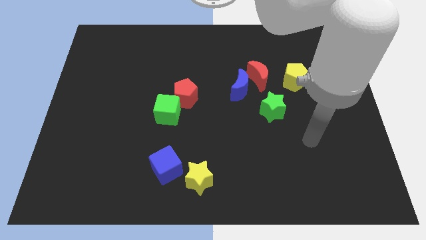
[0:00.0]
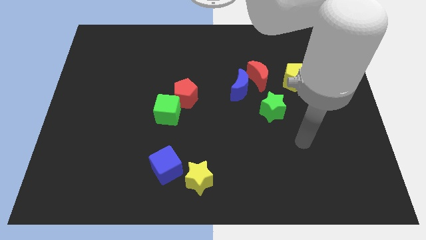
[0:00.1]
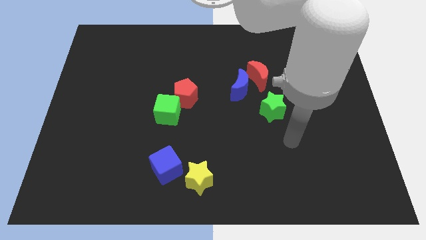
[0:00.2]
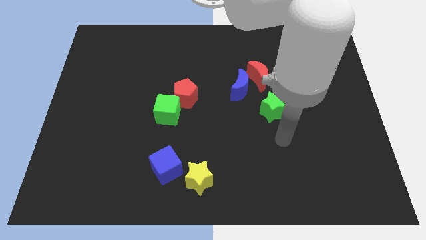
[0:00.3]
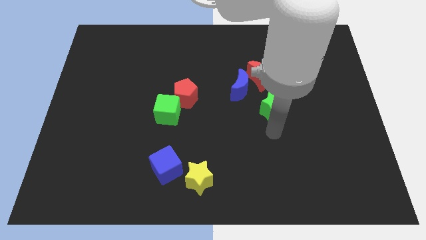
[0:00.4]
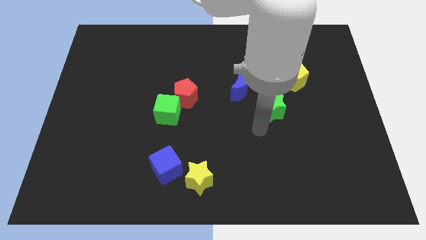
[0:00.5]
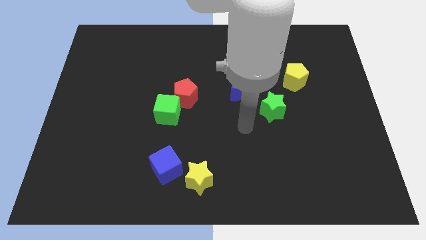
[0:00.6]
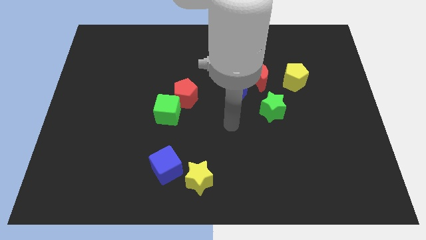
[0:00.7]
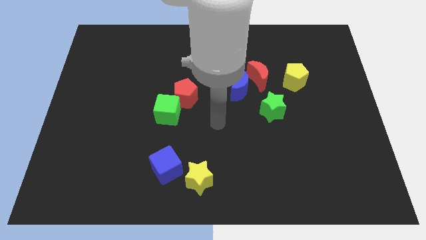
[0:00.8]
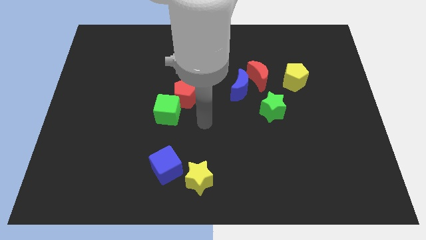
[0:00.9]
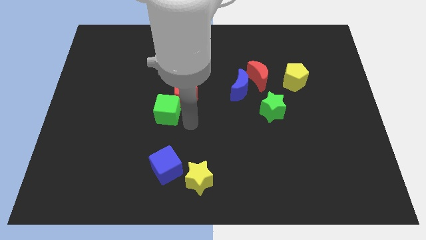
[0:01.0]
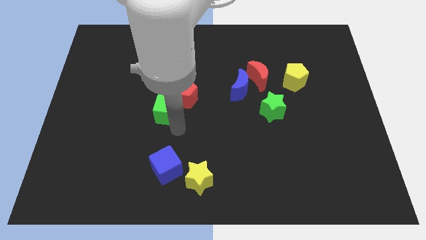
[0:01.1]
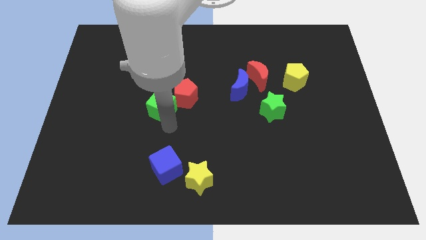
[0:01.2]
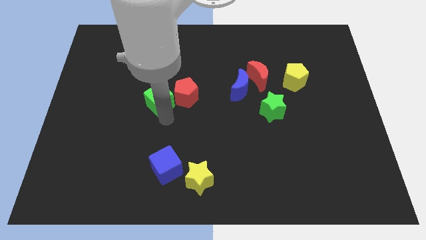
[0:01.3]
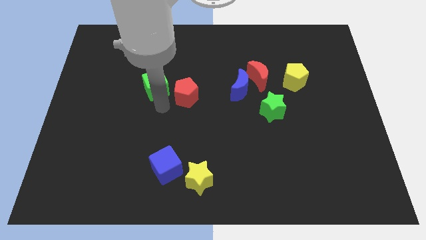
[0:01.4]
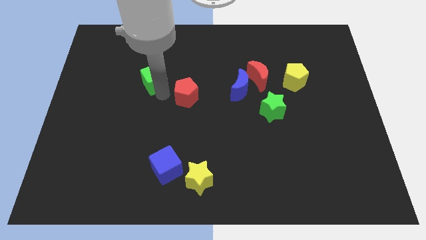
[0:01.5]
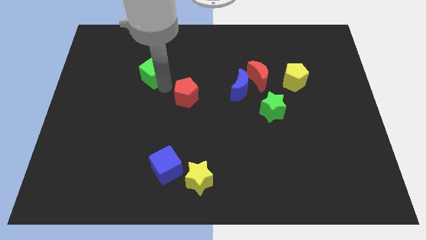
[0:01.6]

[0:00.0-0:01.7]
pull the red pentagon apart from the green cube

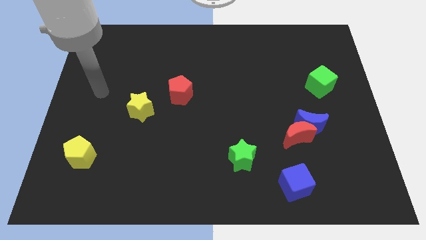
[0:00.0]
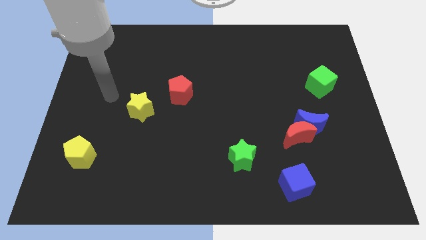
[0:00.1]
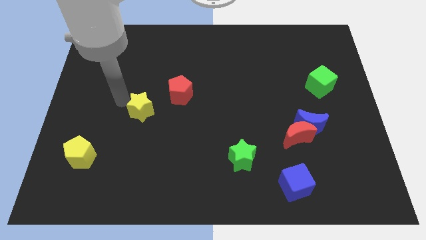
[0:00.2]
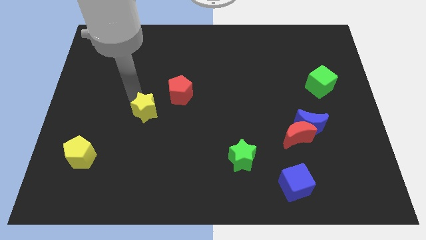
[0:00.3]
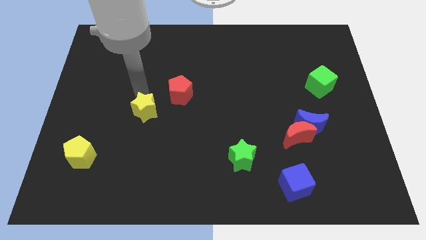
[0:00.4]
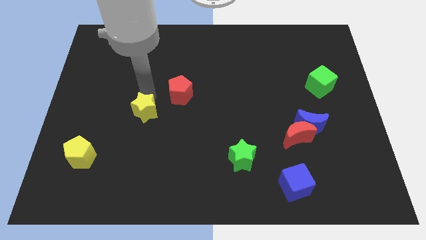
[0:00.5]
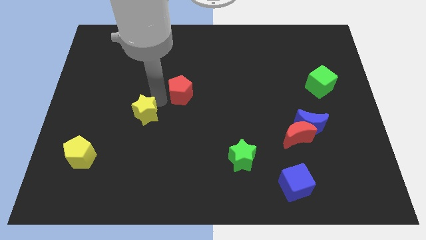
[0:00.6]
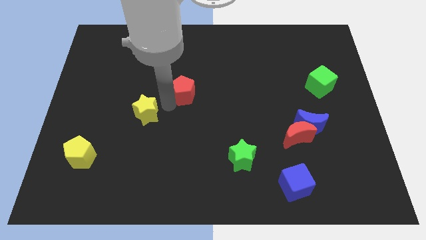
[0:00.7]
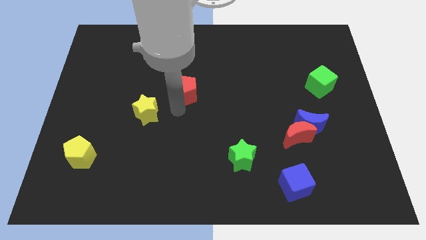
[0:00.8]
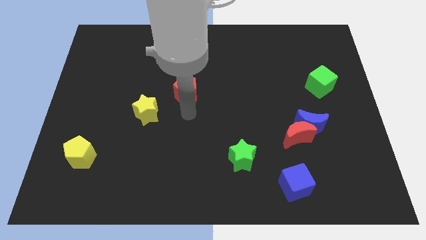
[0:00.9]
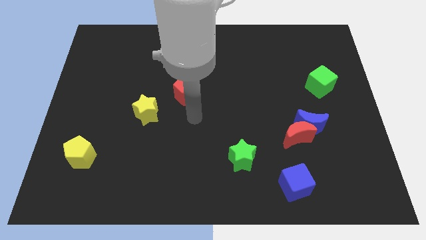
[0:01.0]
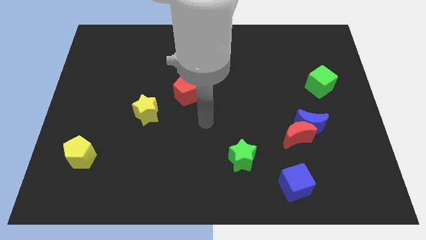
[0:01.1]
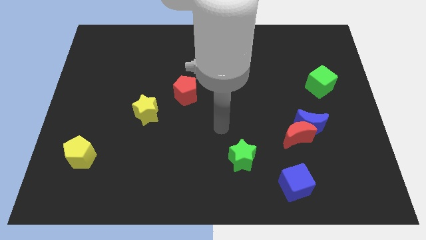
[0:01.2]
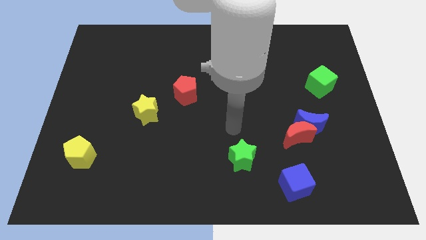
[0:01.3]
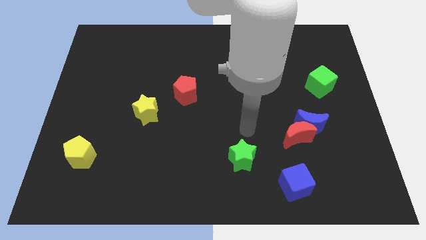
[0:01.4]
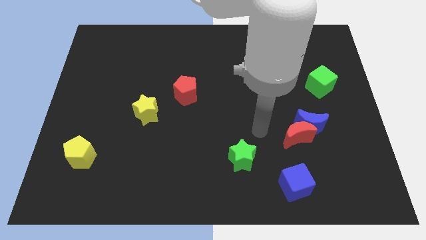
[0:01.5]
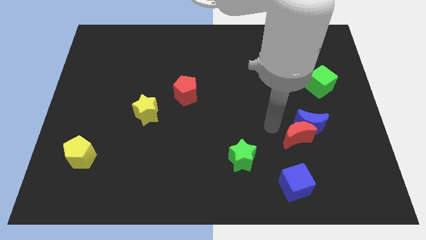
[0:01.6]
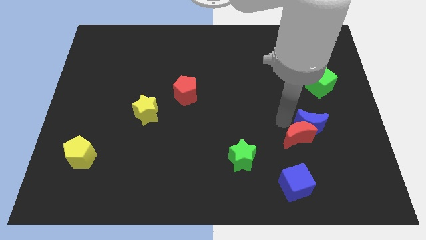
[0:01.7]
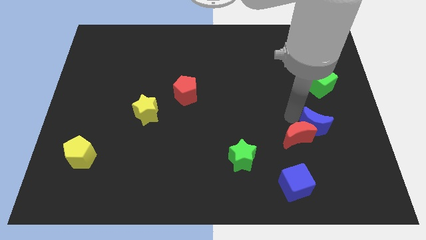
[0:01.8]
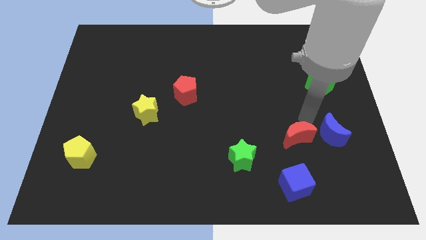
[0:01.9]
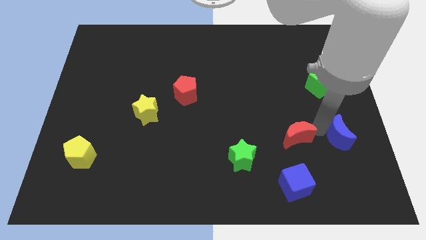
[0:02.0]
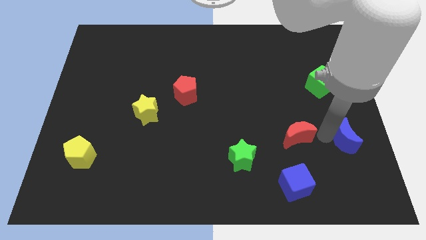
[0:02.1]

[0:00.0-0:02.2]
move the red moon away from the blue moon

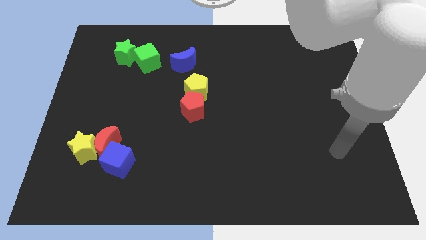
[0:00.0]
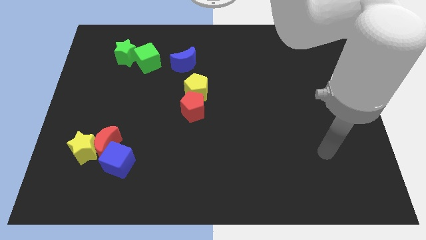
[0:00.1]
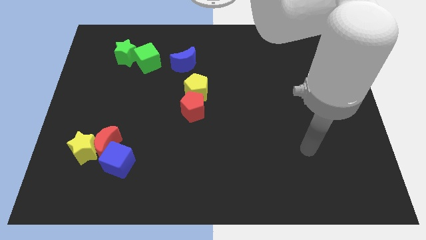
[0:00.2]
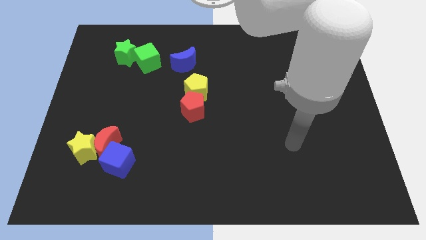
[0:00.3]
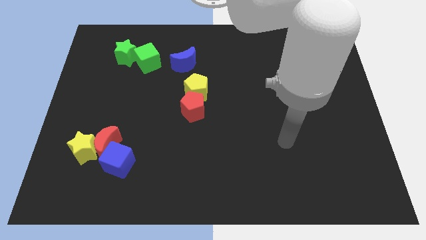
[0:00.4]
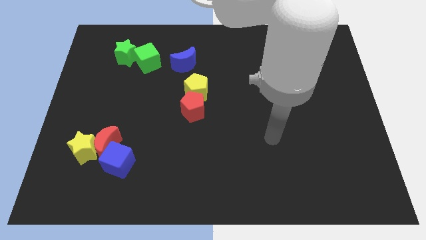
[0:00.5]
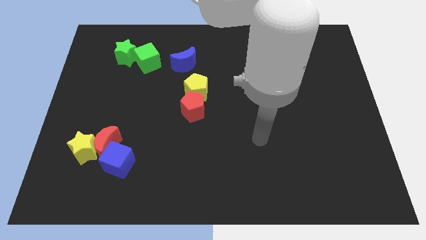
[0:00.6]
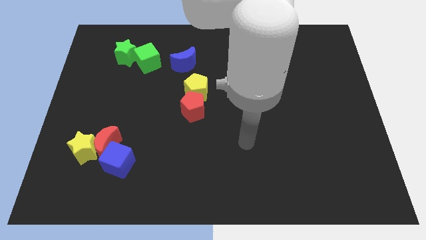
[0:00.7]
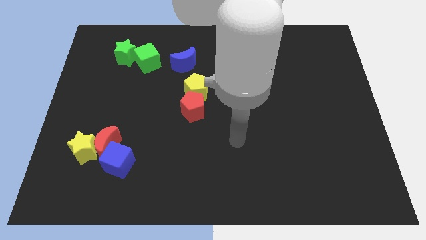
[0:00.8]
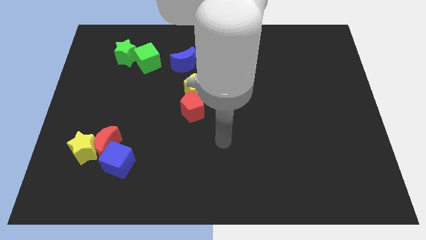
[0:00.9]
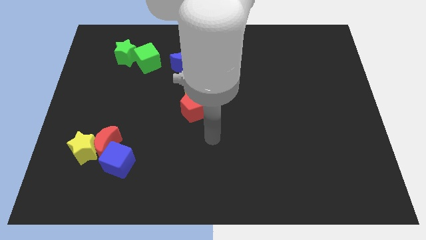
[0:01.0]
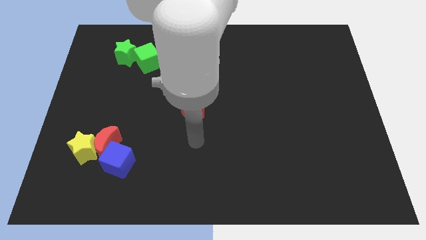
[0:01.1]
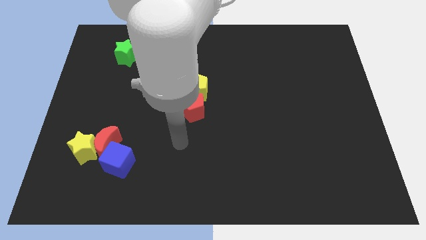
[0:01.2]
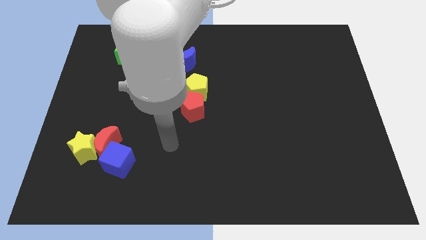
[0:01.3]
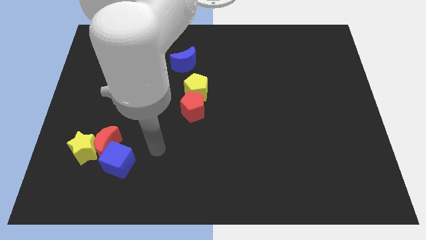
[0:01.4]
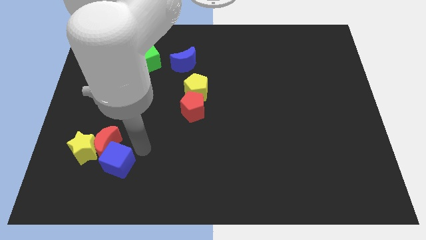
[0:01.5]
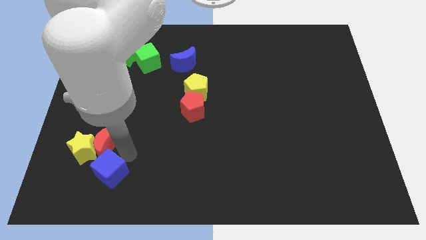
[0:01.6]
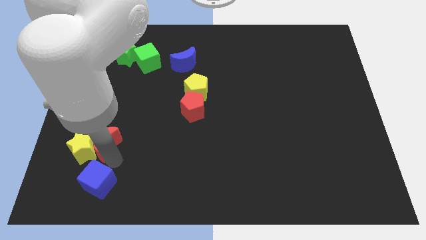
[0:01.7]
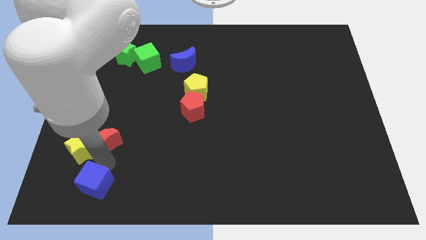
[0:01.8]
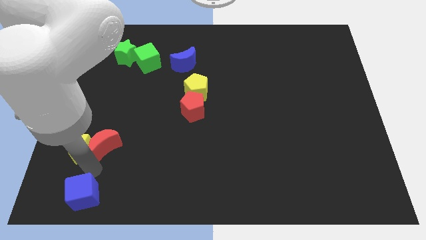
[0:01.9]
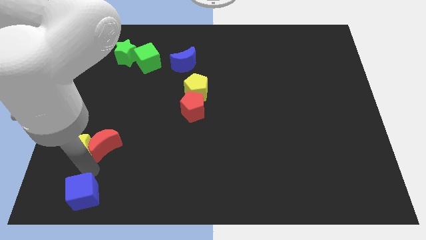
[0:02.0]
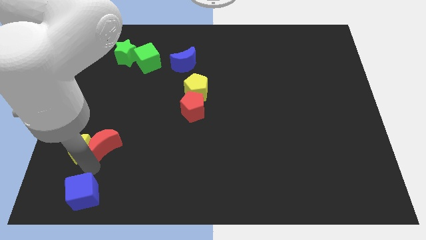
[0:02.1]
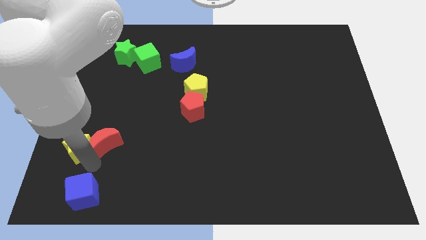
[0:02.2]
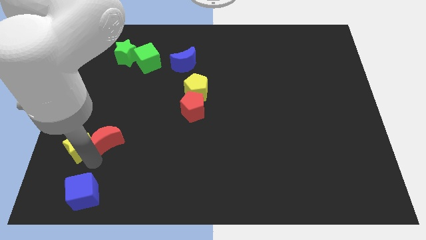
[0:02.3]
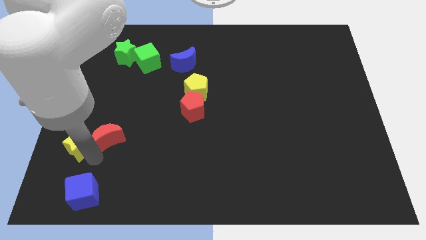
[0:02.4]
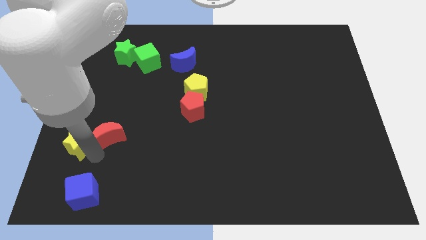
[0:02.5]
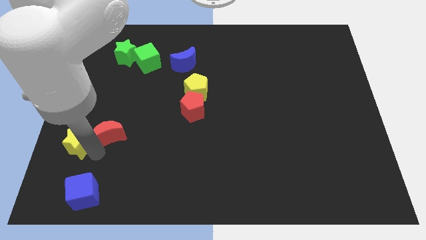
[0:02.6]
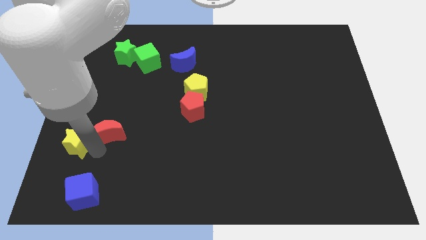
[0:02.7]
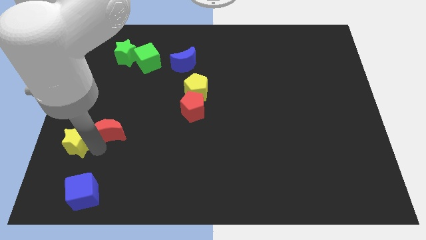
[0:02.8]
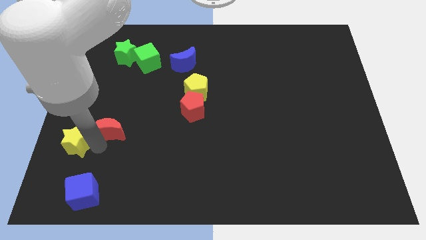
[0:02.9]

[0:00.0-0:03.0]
separate the red moon from the yellow star and blue cube

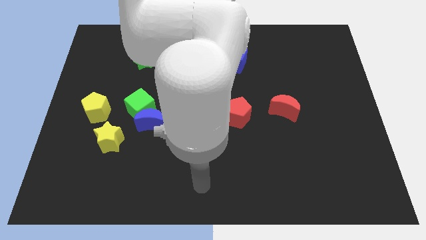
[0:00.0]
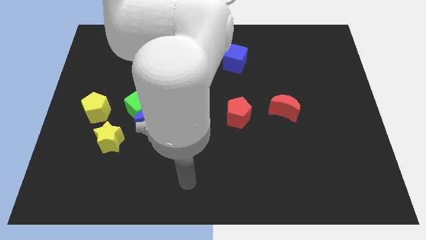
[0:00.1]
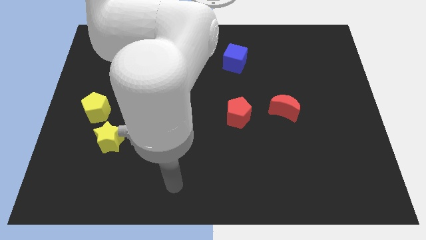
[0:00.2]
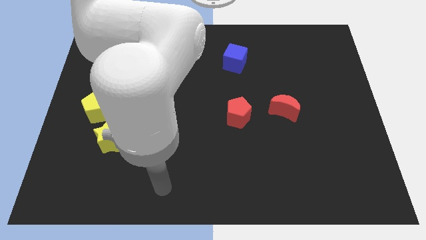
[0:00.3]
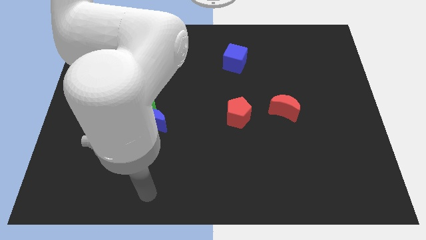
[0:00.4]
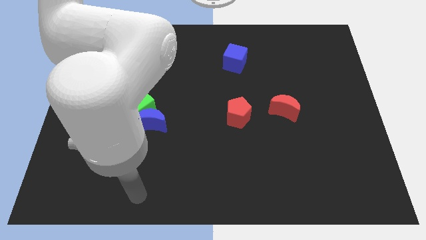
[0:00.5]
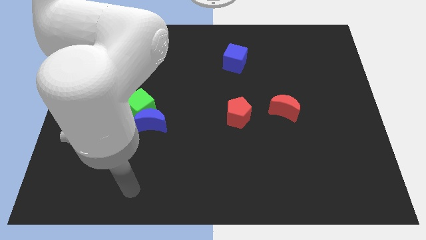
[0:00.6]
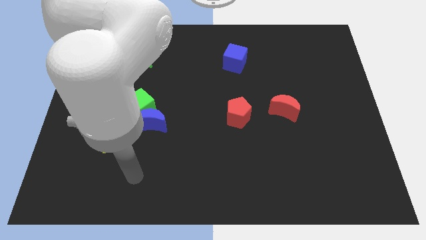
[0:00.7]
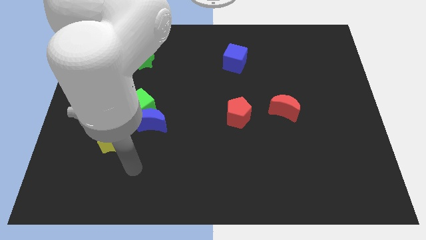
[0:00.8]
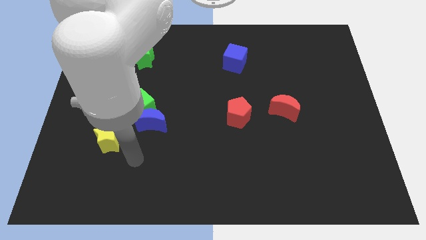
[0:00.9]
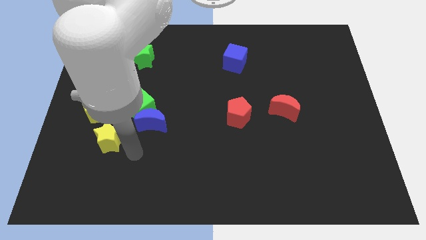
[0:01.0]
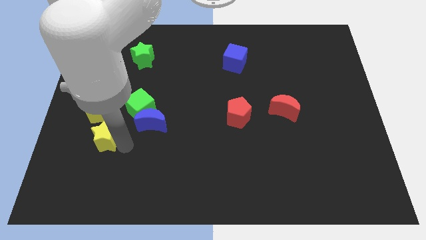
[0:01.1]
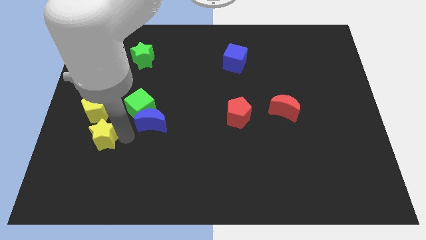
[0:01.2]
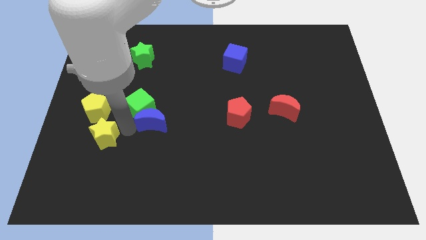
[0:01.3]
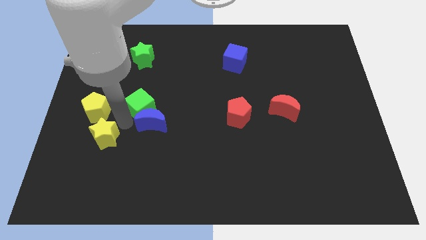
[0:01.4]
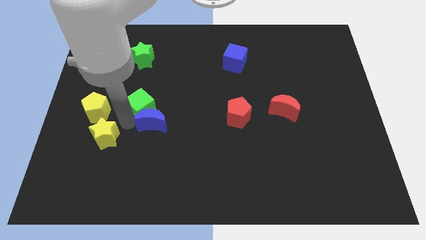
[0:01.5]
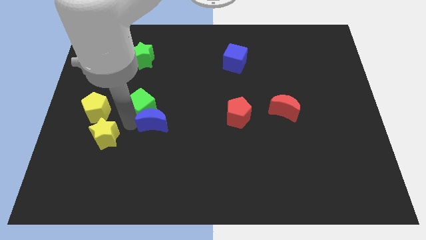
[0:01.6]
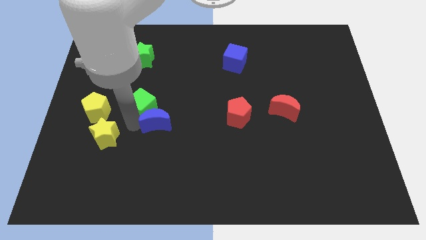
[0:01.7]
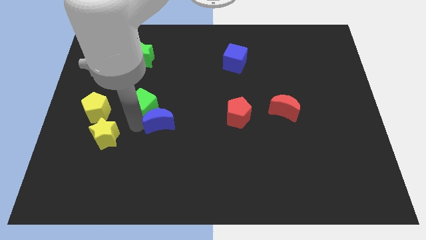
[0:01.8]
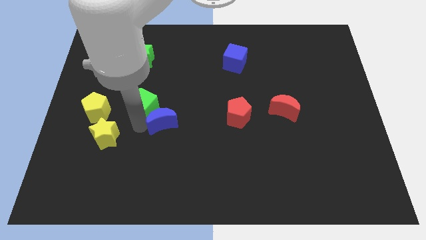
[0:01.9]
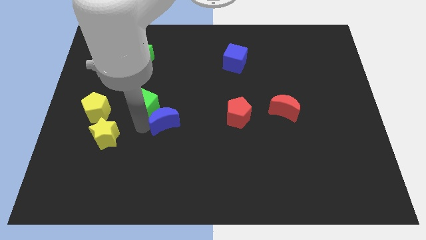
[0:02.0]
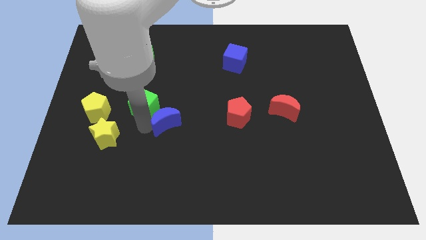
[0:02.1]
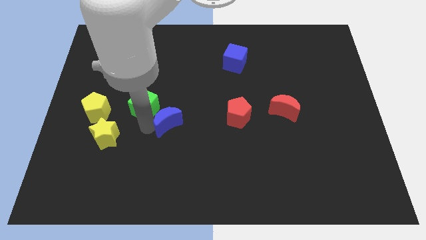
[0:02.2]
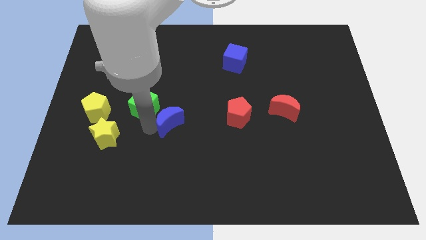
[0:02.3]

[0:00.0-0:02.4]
pull the blue moon apart from the green cube and yellow star

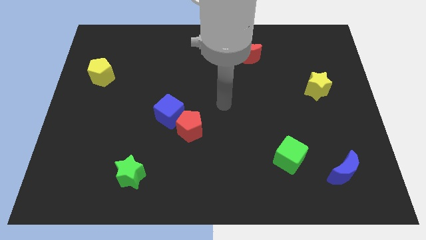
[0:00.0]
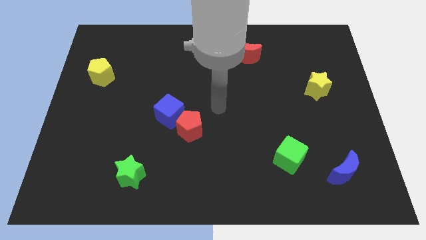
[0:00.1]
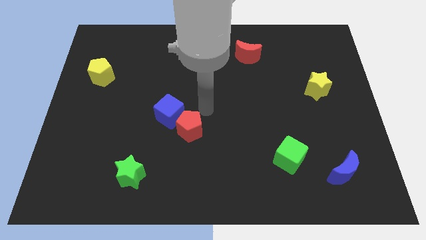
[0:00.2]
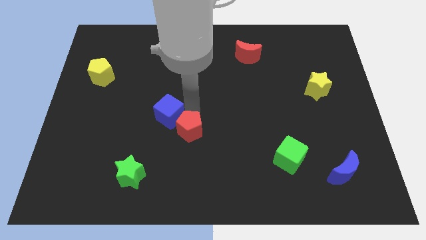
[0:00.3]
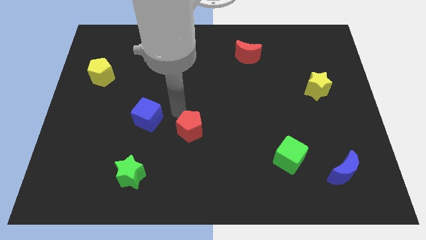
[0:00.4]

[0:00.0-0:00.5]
move the red pentagon away from the blue cube
